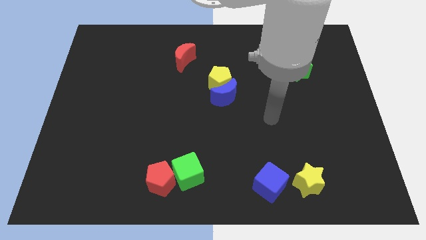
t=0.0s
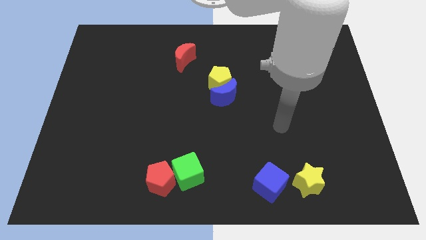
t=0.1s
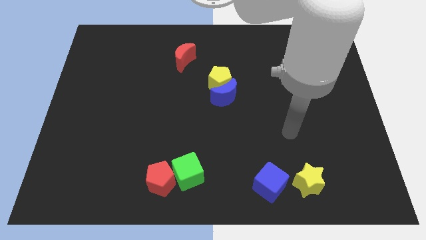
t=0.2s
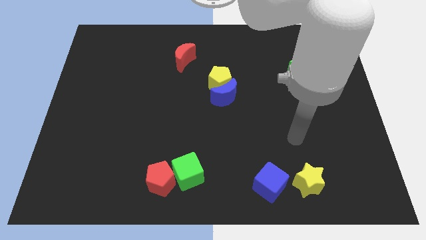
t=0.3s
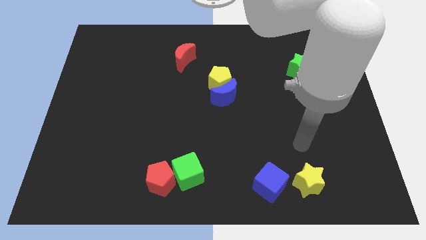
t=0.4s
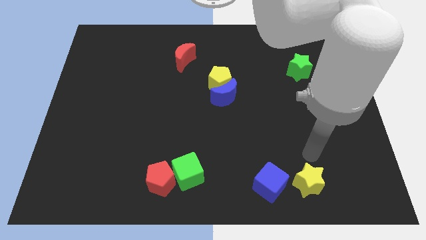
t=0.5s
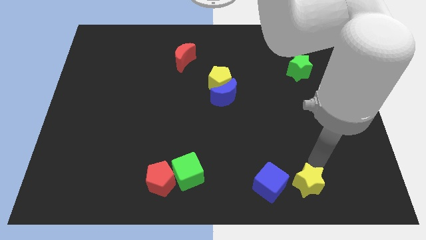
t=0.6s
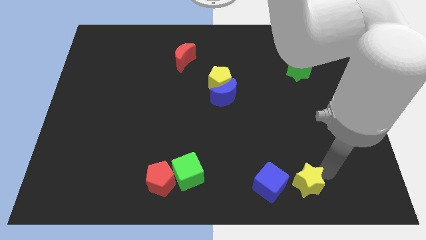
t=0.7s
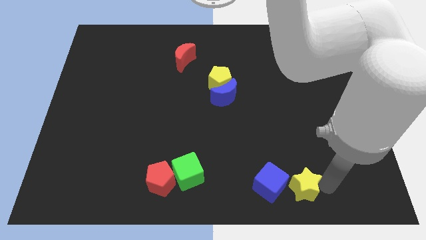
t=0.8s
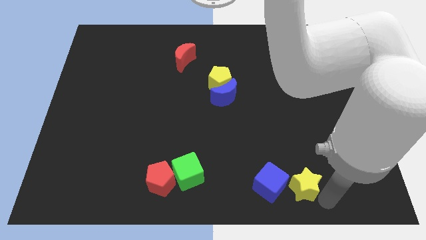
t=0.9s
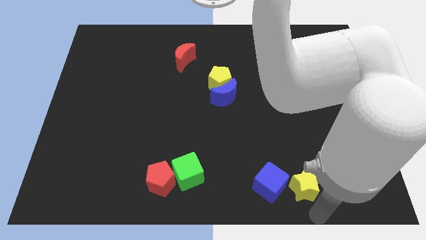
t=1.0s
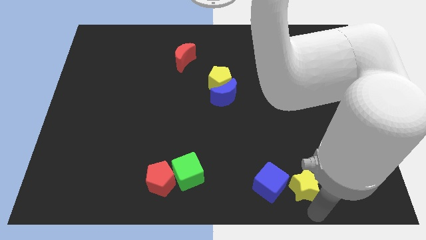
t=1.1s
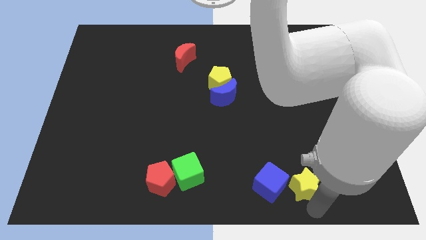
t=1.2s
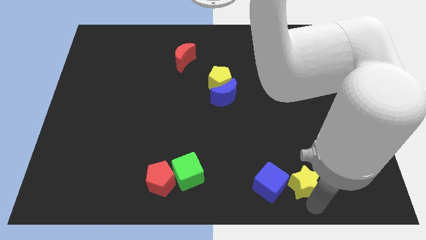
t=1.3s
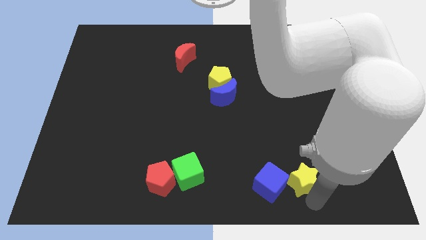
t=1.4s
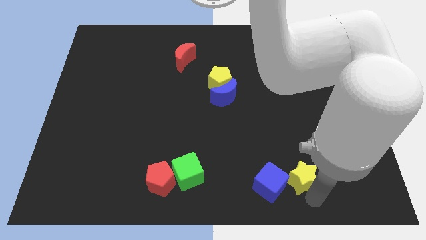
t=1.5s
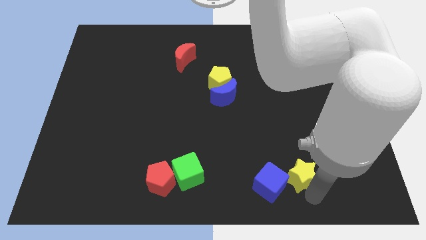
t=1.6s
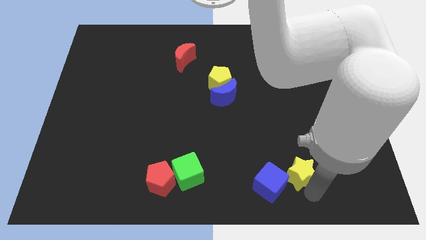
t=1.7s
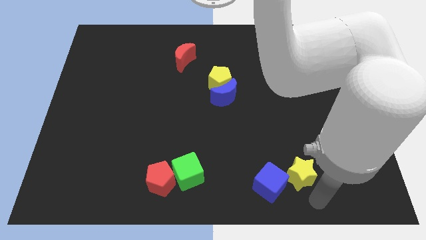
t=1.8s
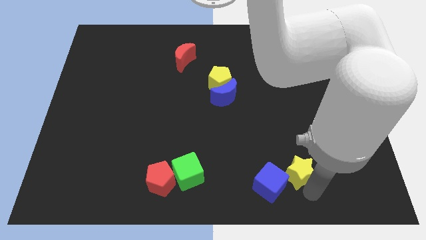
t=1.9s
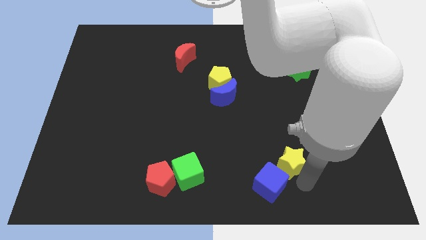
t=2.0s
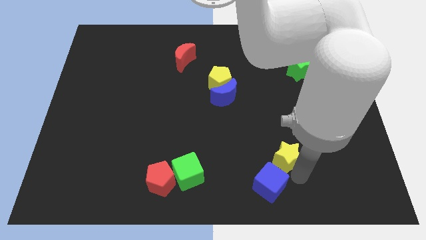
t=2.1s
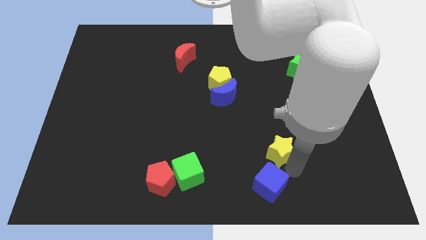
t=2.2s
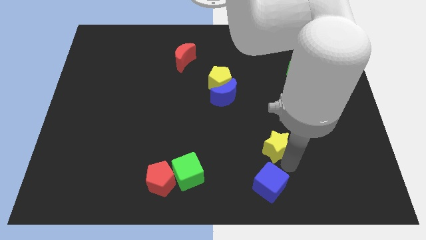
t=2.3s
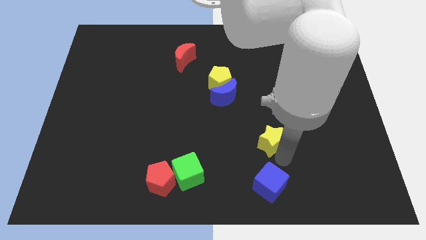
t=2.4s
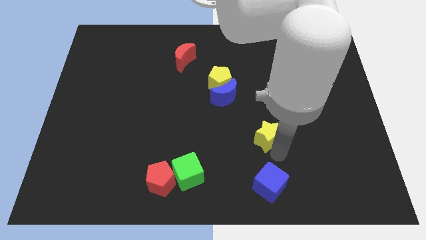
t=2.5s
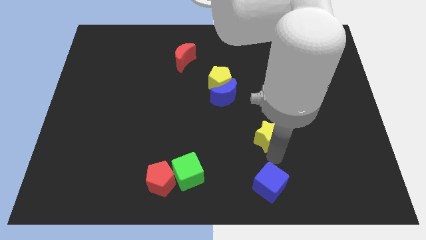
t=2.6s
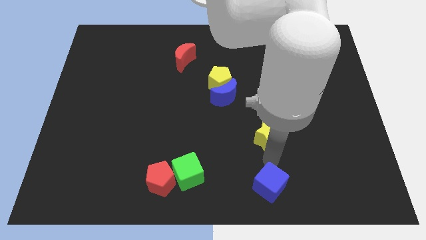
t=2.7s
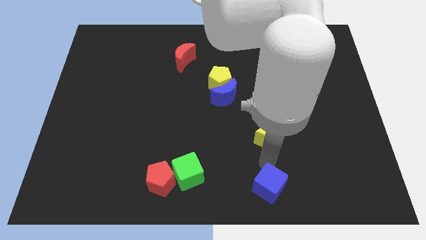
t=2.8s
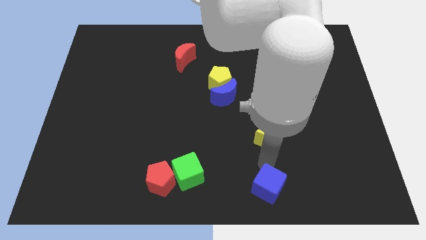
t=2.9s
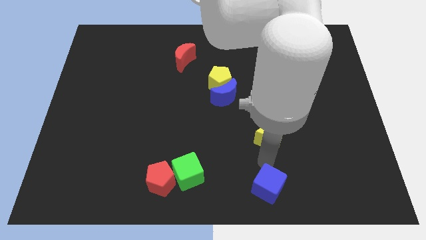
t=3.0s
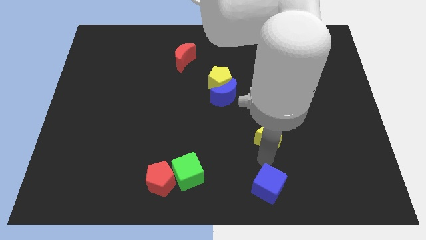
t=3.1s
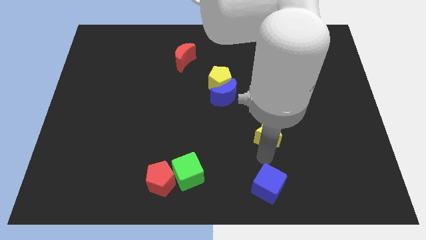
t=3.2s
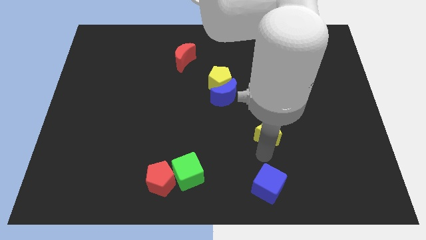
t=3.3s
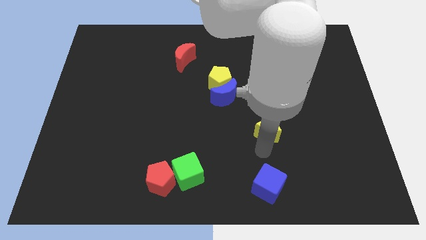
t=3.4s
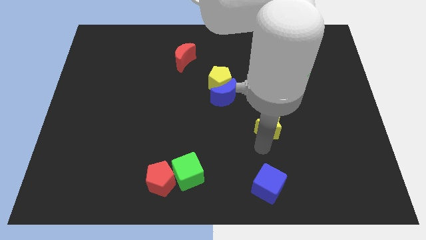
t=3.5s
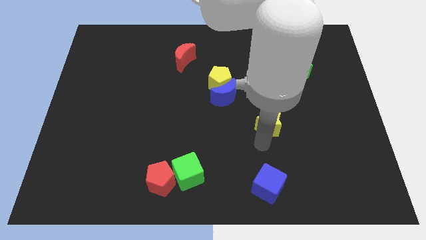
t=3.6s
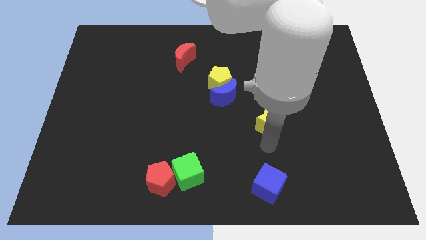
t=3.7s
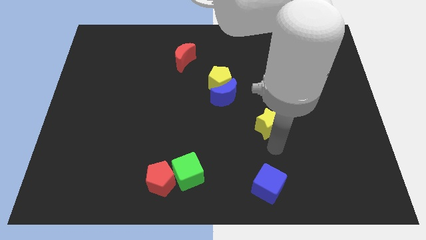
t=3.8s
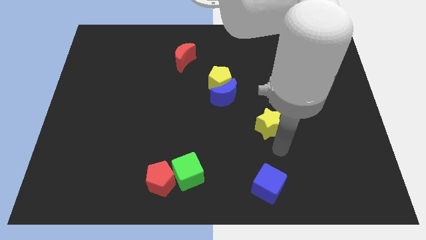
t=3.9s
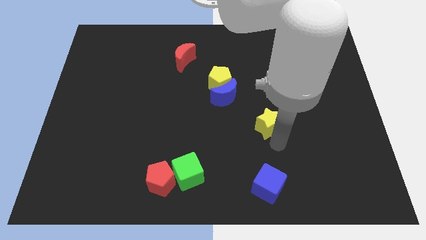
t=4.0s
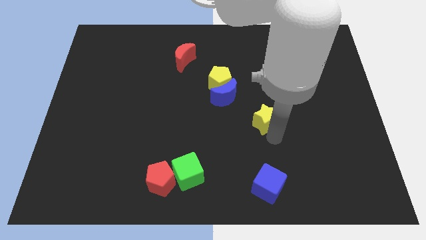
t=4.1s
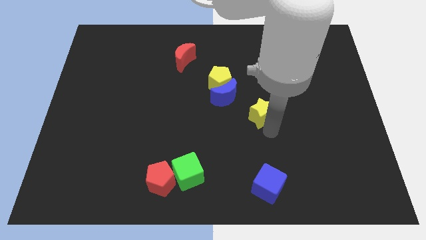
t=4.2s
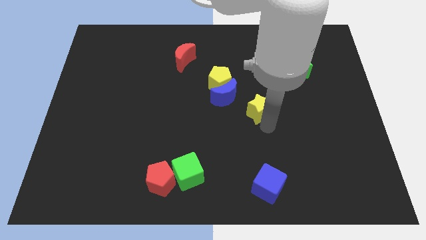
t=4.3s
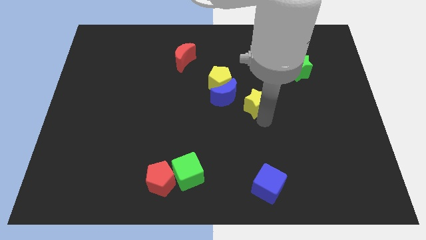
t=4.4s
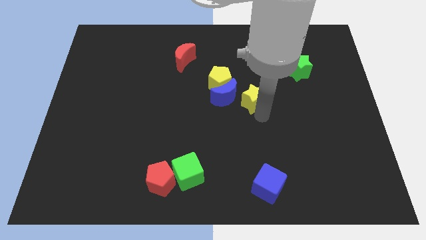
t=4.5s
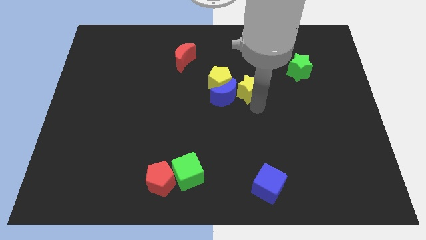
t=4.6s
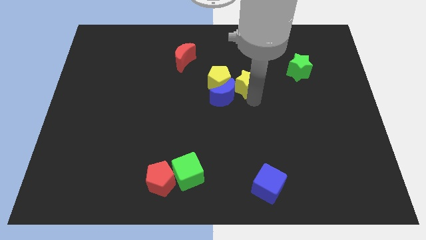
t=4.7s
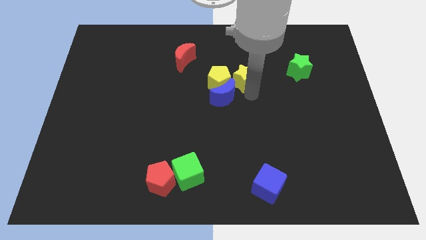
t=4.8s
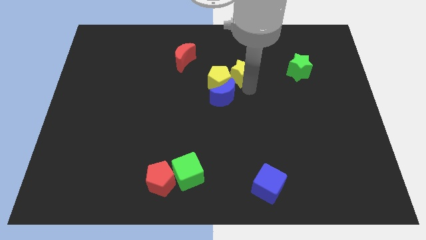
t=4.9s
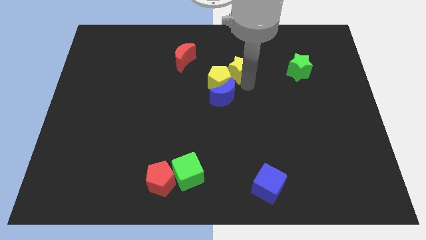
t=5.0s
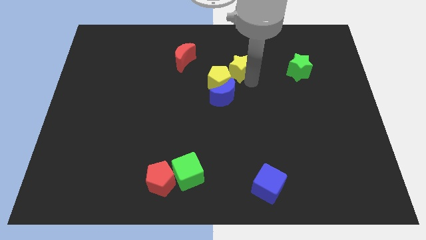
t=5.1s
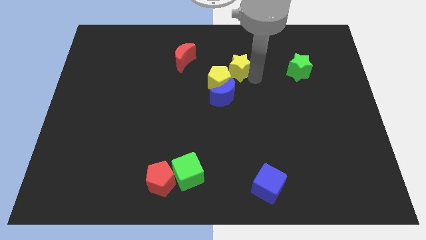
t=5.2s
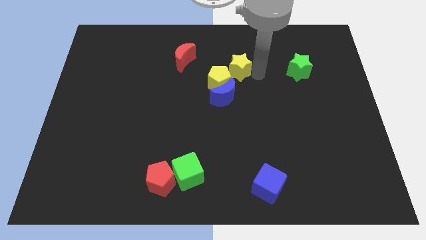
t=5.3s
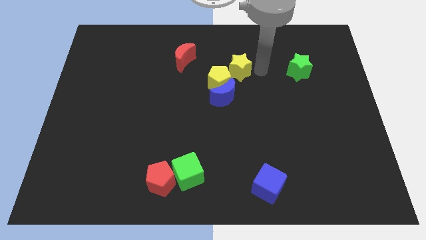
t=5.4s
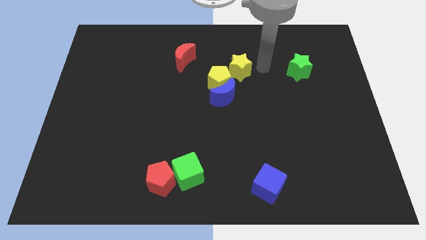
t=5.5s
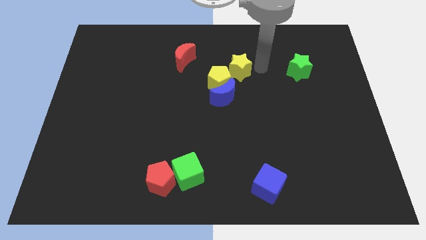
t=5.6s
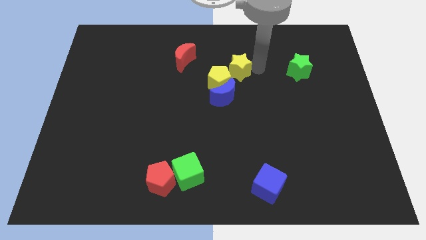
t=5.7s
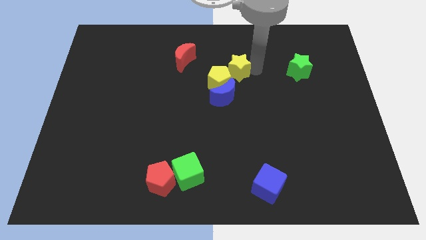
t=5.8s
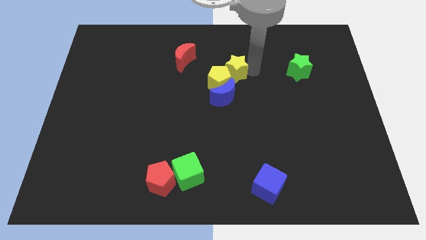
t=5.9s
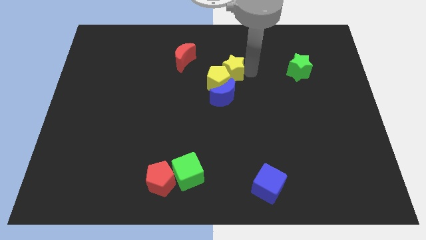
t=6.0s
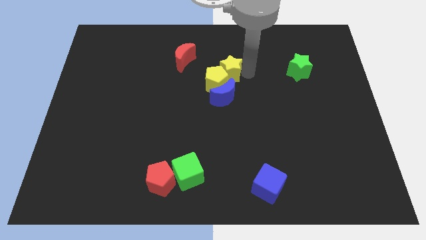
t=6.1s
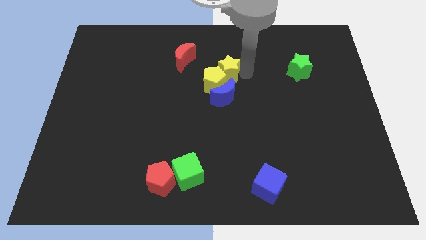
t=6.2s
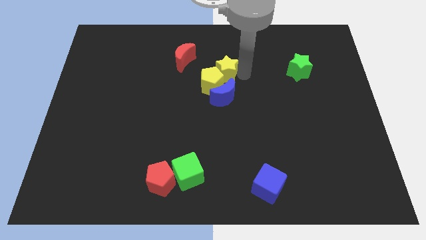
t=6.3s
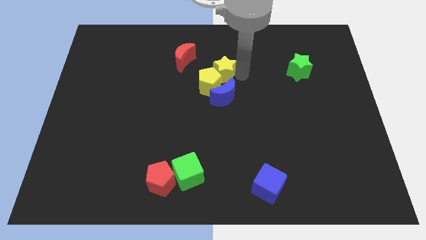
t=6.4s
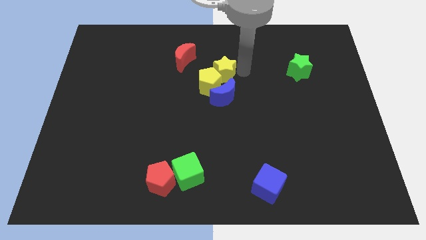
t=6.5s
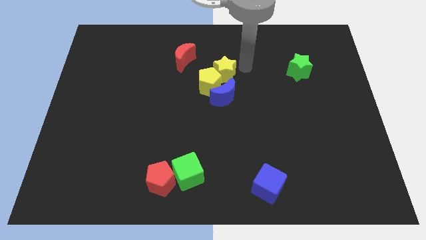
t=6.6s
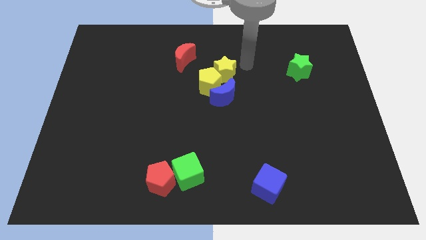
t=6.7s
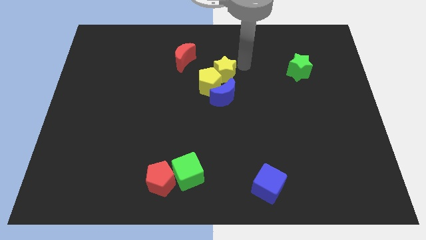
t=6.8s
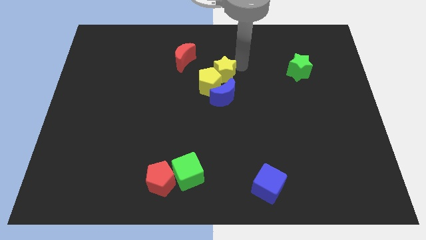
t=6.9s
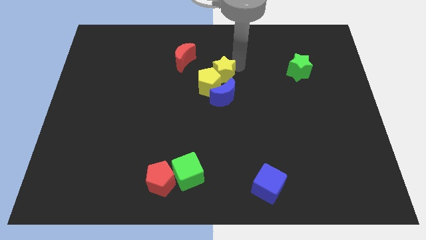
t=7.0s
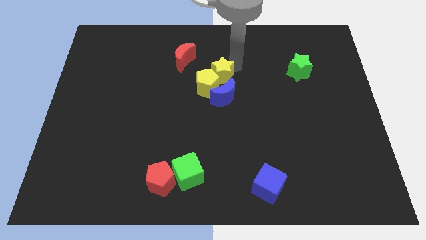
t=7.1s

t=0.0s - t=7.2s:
slide the yellow star diagonally up and to the left of the blue moon

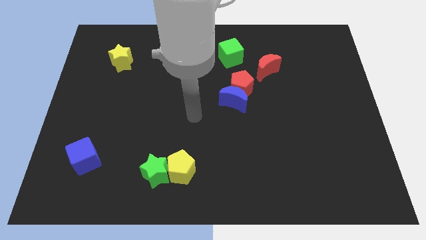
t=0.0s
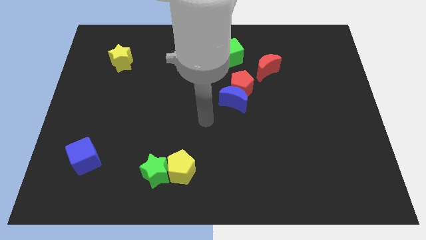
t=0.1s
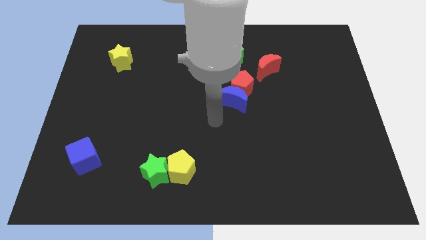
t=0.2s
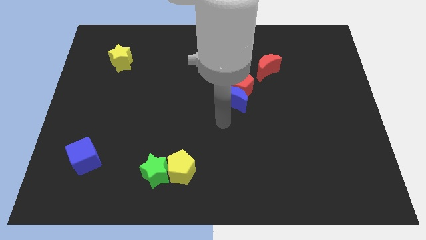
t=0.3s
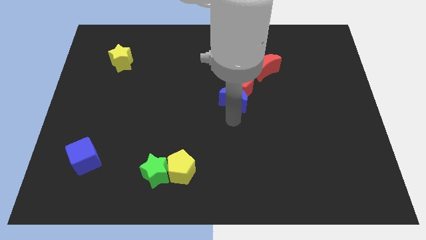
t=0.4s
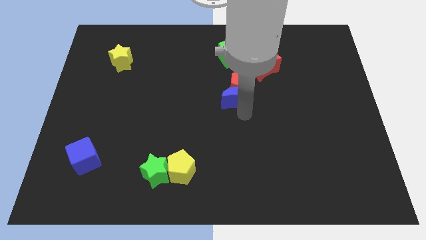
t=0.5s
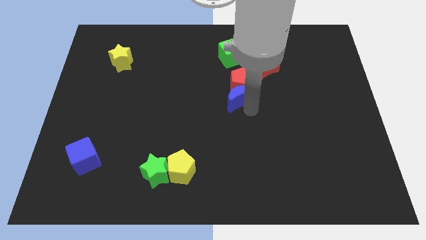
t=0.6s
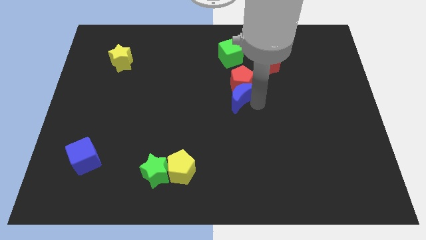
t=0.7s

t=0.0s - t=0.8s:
slide the red pentagon left of the red moon
